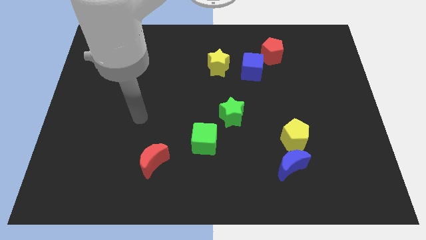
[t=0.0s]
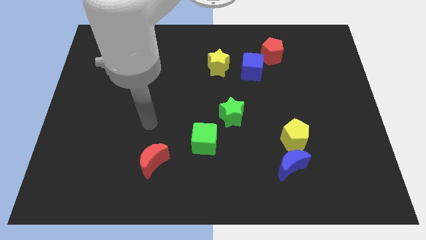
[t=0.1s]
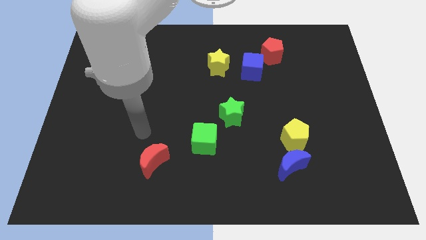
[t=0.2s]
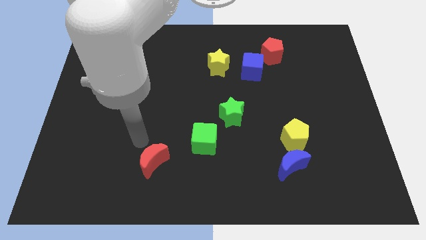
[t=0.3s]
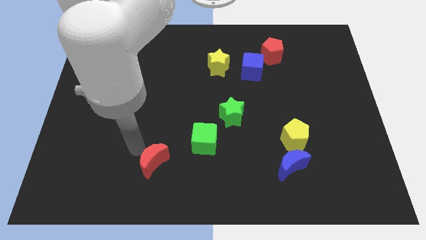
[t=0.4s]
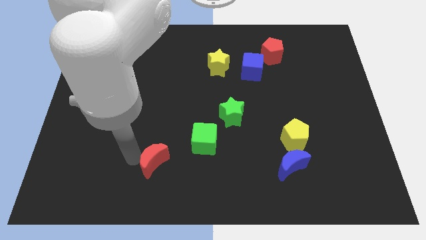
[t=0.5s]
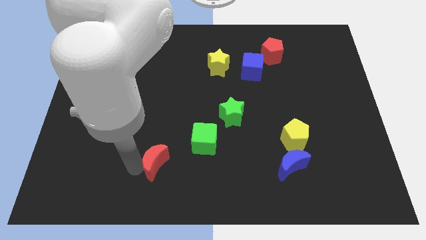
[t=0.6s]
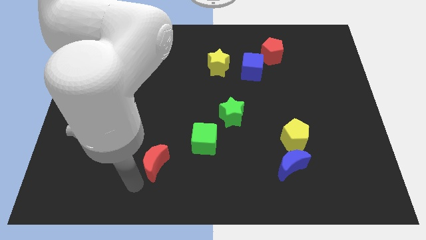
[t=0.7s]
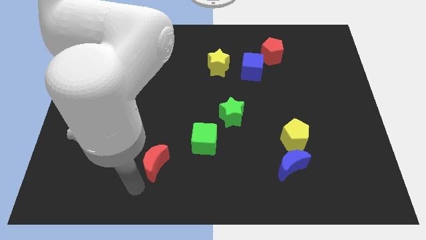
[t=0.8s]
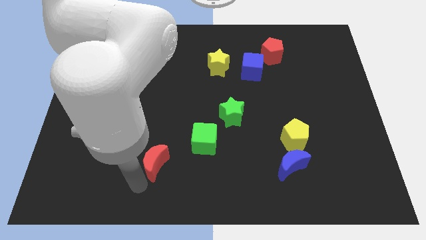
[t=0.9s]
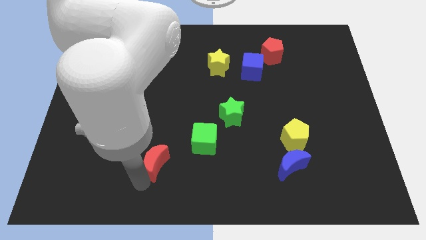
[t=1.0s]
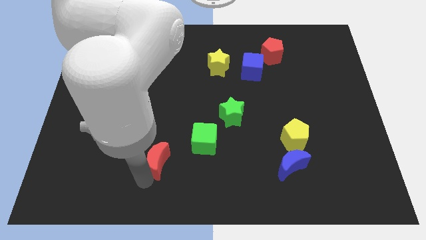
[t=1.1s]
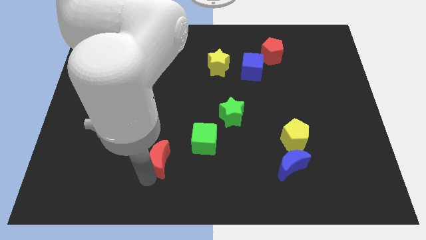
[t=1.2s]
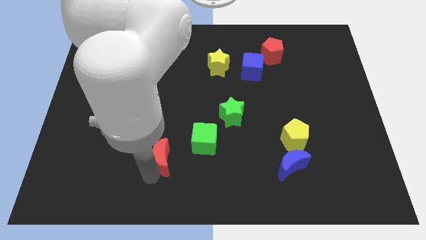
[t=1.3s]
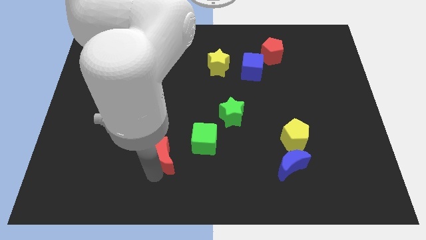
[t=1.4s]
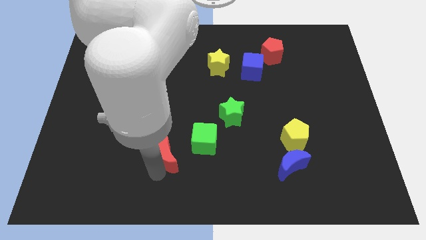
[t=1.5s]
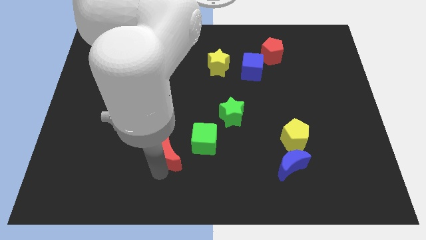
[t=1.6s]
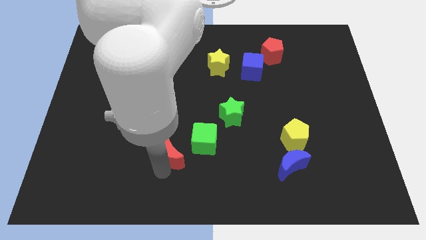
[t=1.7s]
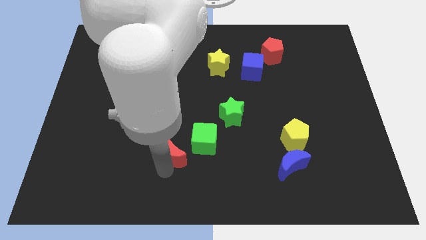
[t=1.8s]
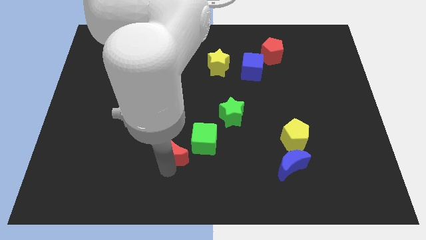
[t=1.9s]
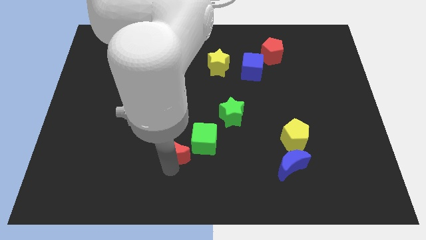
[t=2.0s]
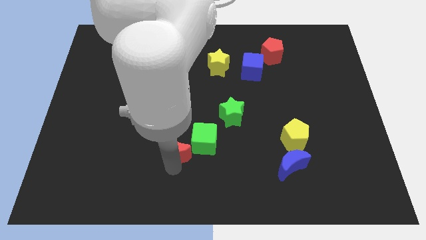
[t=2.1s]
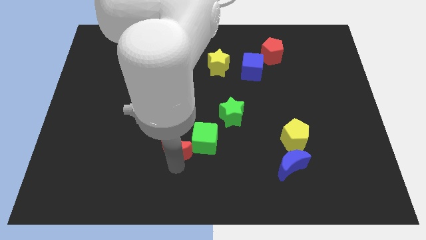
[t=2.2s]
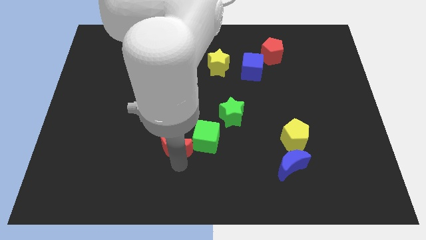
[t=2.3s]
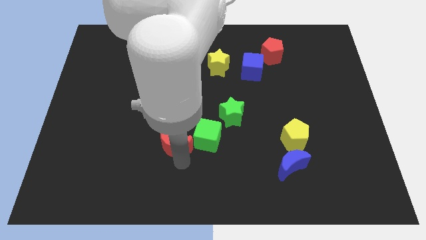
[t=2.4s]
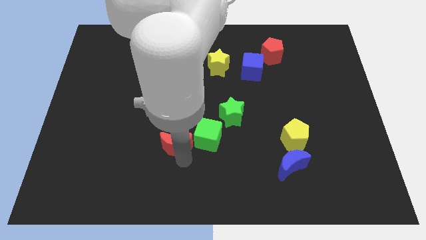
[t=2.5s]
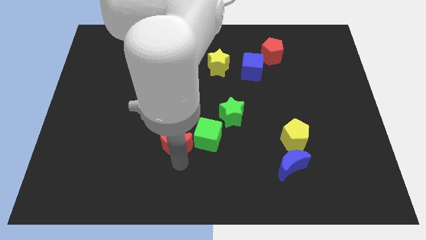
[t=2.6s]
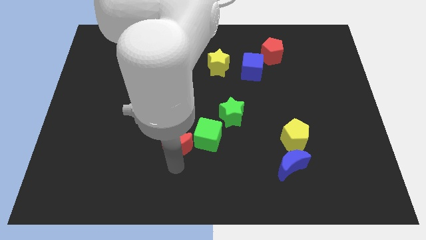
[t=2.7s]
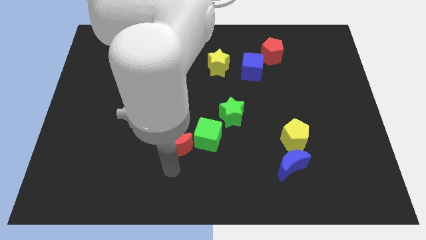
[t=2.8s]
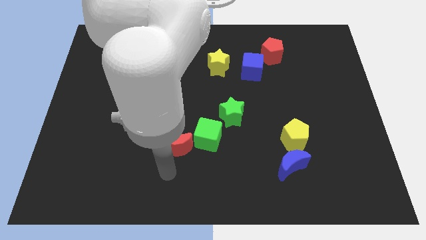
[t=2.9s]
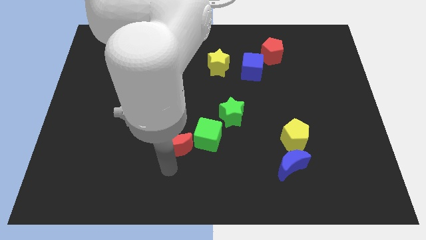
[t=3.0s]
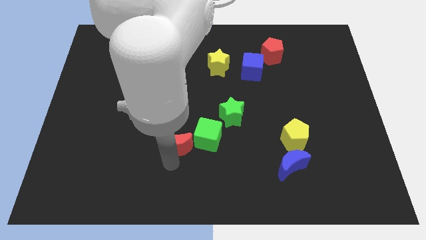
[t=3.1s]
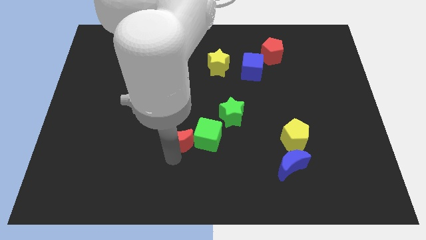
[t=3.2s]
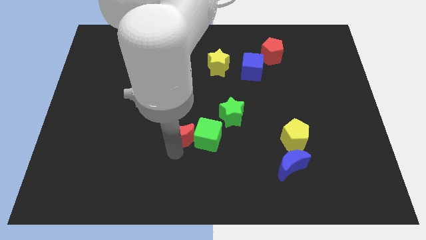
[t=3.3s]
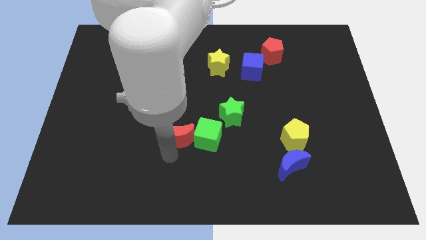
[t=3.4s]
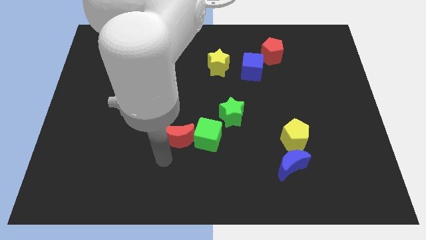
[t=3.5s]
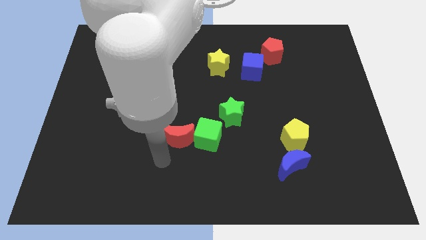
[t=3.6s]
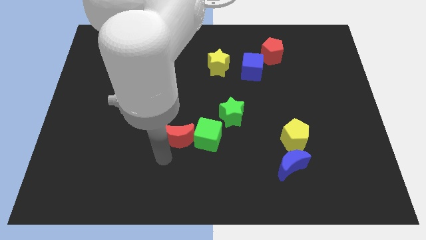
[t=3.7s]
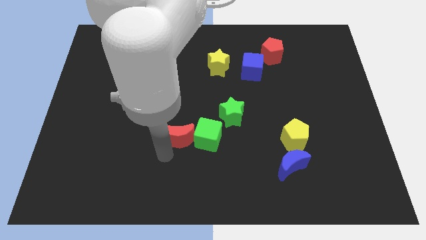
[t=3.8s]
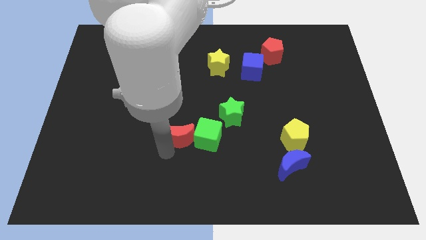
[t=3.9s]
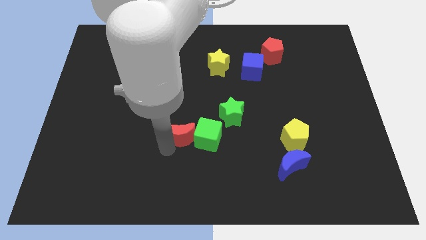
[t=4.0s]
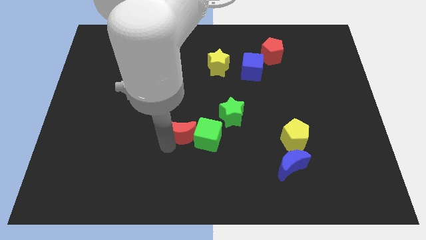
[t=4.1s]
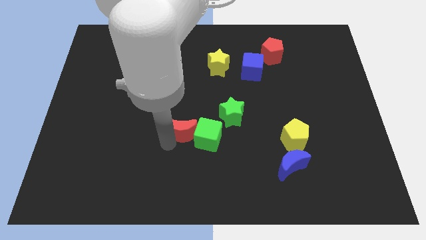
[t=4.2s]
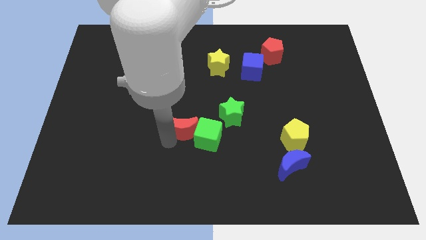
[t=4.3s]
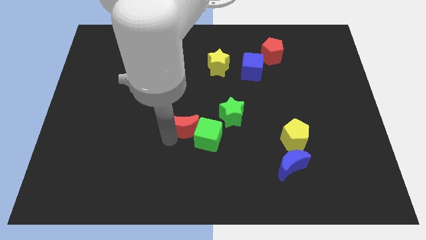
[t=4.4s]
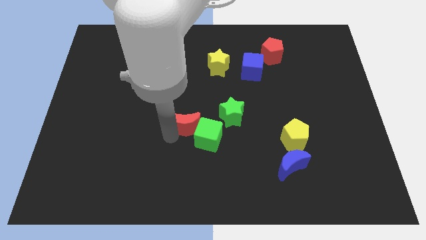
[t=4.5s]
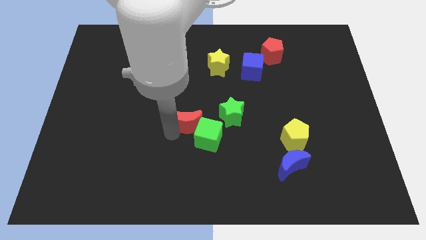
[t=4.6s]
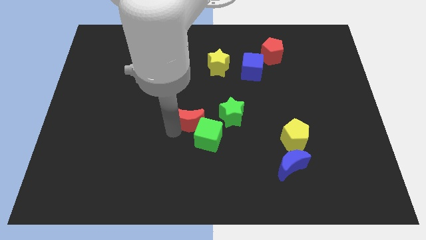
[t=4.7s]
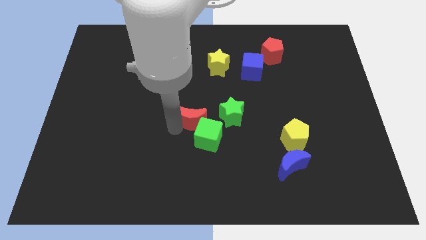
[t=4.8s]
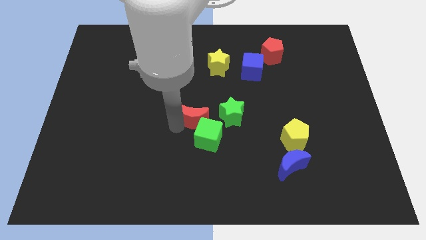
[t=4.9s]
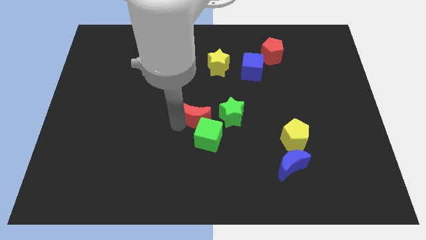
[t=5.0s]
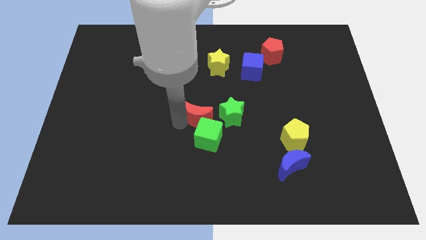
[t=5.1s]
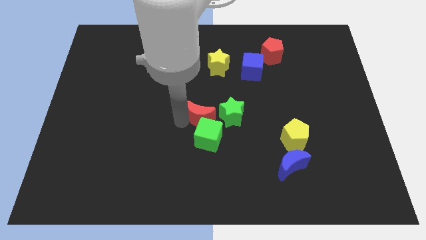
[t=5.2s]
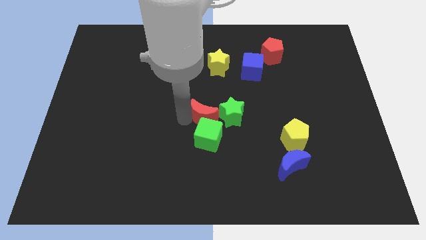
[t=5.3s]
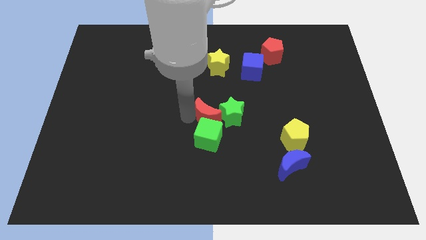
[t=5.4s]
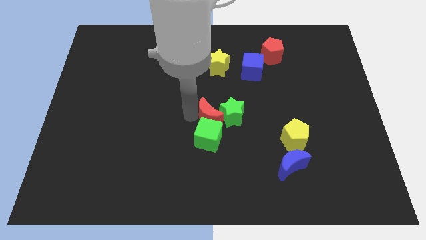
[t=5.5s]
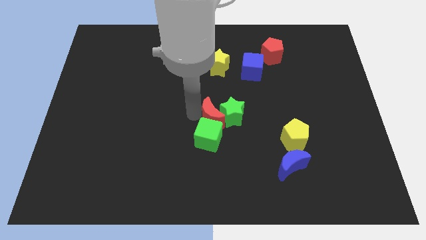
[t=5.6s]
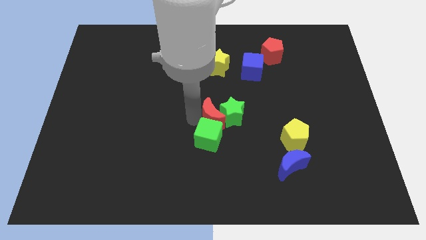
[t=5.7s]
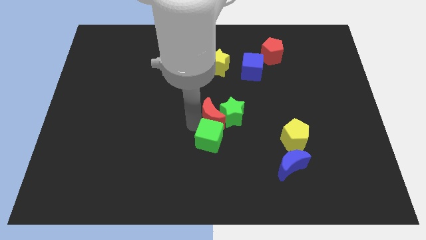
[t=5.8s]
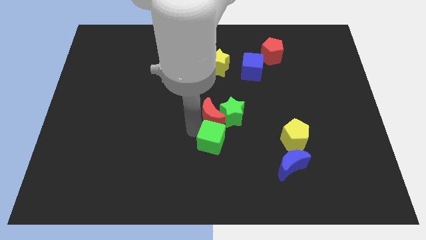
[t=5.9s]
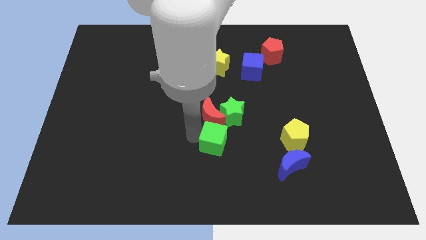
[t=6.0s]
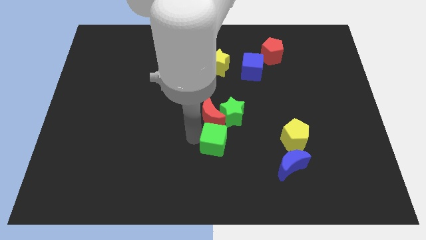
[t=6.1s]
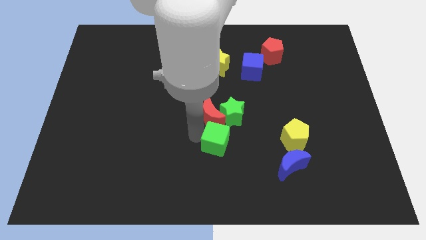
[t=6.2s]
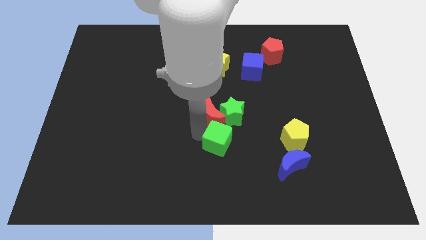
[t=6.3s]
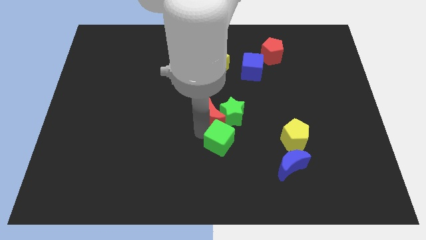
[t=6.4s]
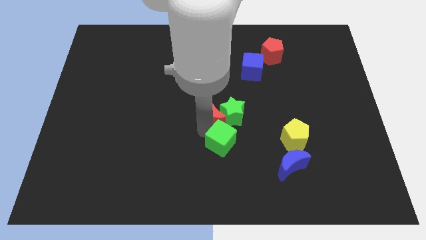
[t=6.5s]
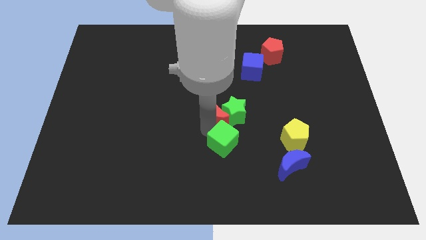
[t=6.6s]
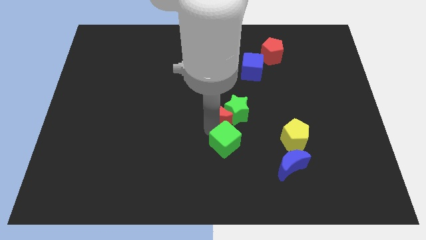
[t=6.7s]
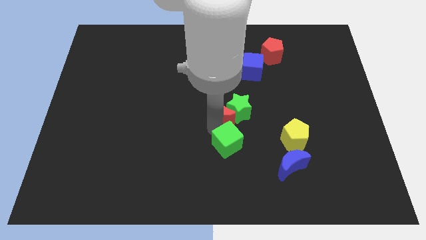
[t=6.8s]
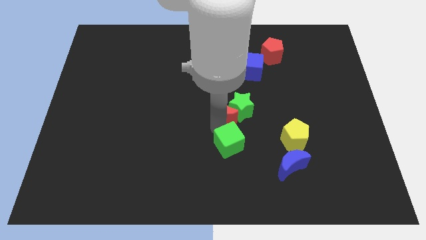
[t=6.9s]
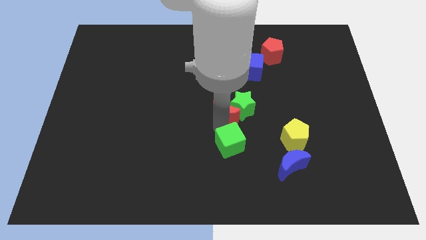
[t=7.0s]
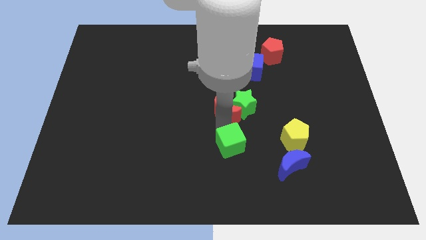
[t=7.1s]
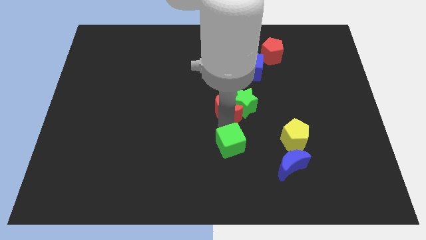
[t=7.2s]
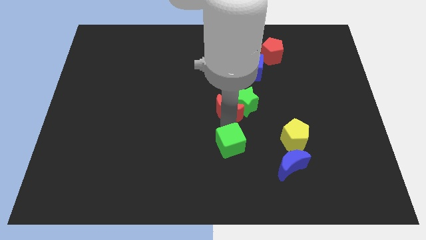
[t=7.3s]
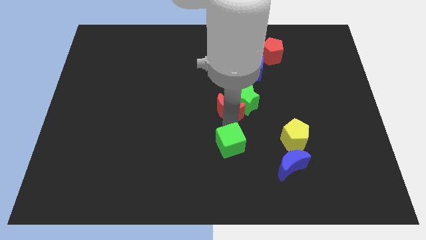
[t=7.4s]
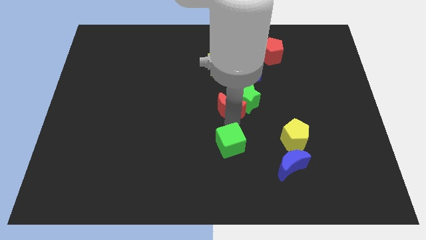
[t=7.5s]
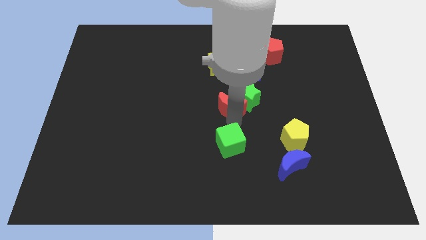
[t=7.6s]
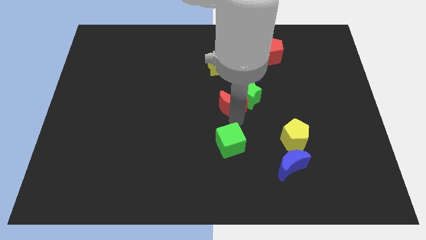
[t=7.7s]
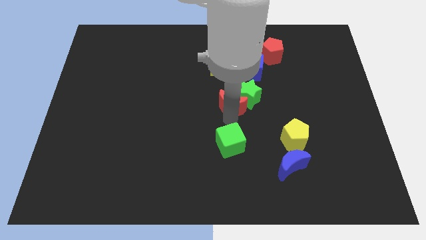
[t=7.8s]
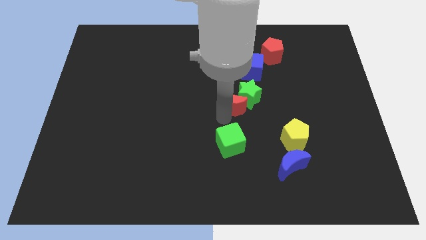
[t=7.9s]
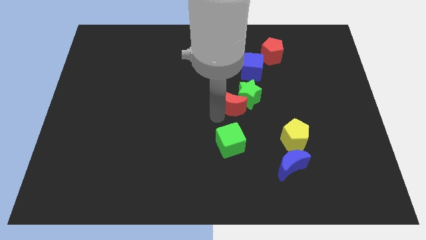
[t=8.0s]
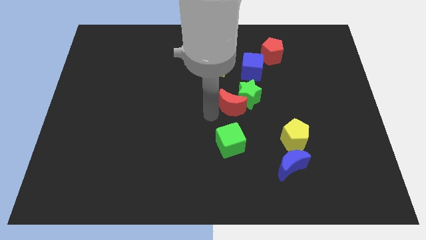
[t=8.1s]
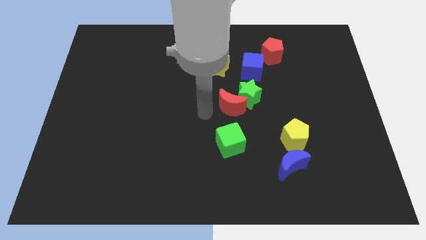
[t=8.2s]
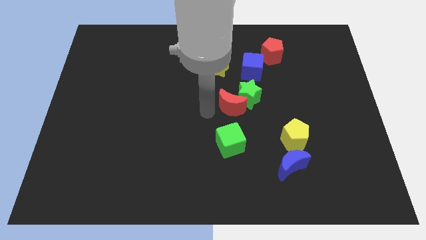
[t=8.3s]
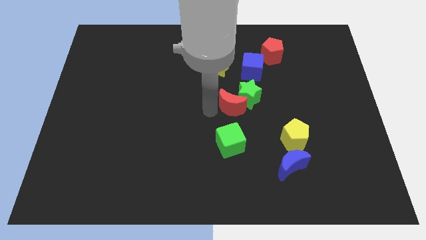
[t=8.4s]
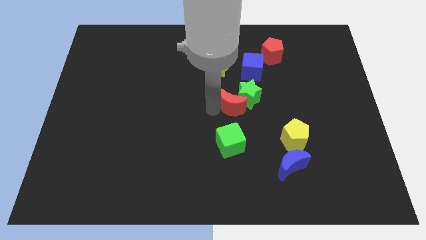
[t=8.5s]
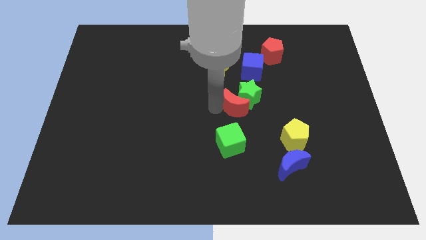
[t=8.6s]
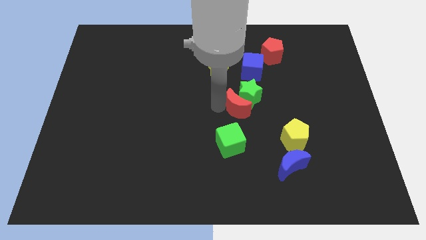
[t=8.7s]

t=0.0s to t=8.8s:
push the red moon to the bottom side of the blue cube
